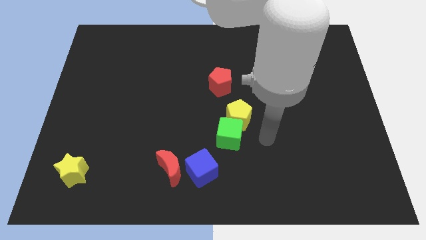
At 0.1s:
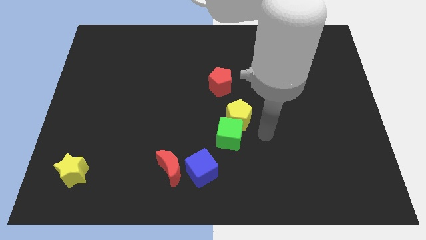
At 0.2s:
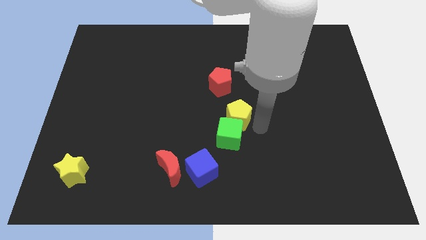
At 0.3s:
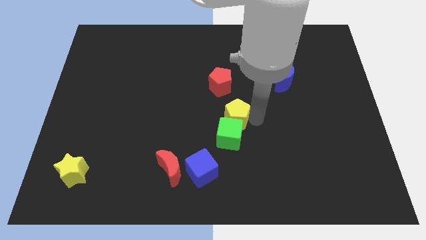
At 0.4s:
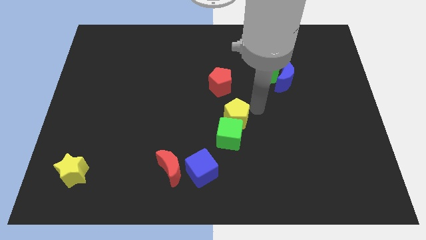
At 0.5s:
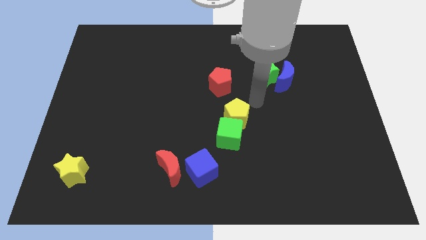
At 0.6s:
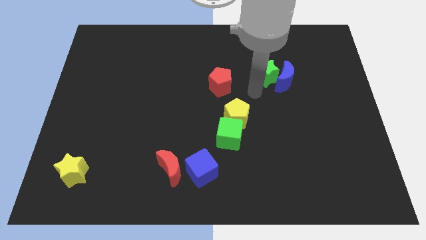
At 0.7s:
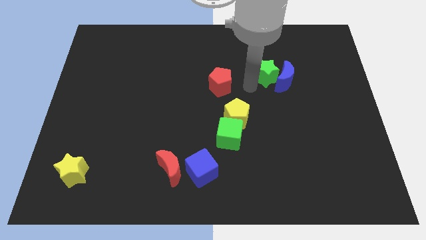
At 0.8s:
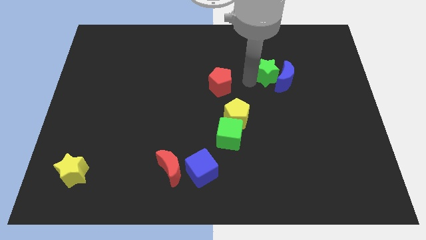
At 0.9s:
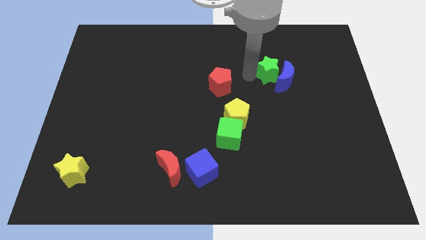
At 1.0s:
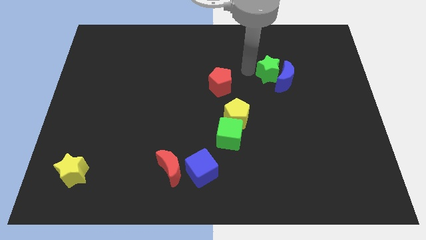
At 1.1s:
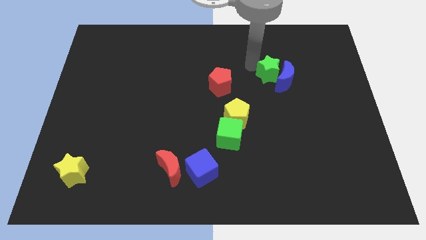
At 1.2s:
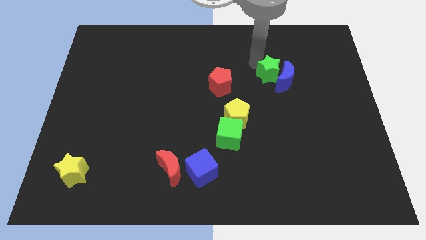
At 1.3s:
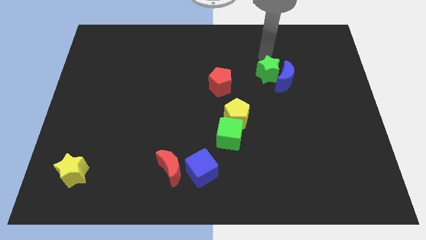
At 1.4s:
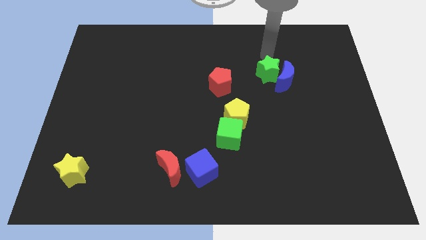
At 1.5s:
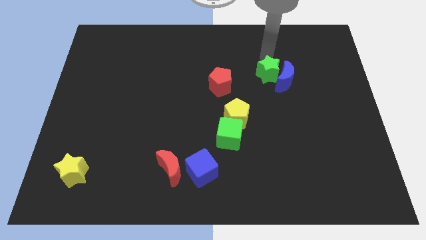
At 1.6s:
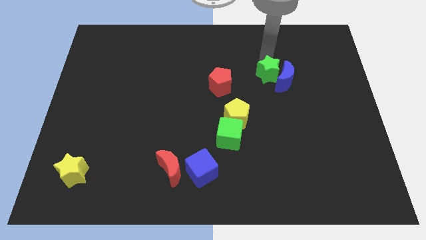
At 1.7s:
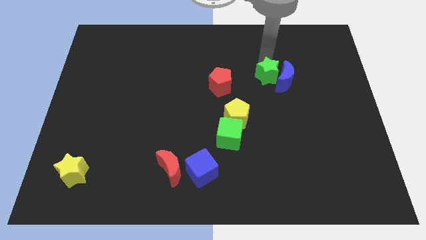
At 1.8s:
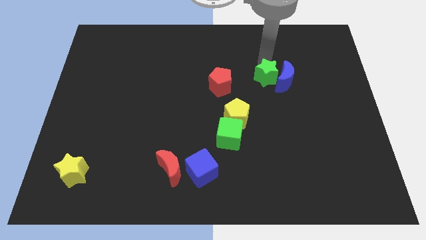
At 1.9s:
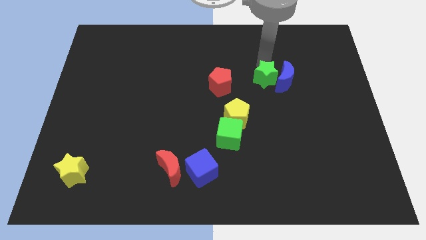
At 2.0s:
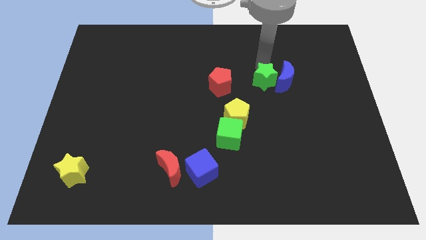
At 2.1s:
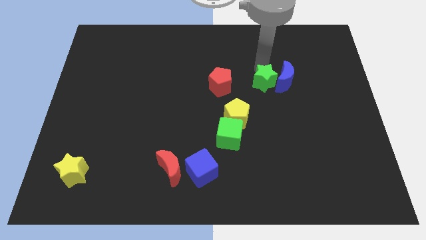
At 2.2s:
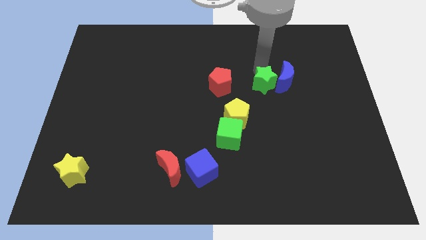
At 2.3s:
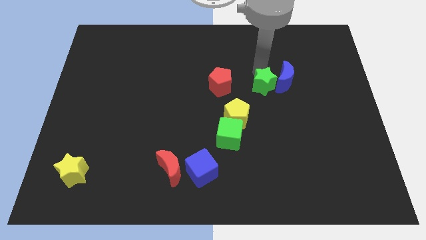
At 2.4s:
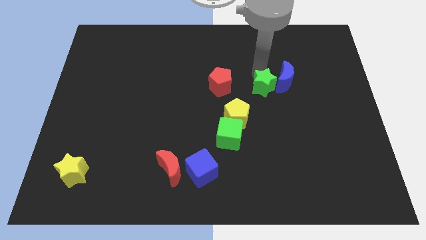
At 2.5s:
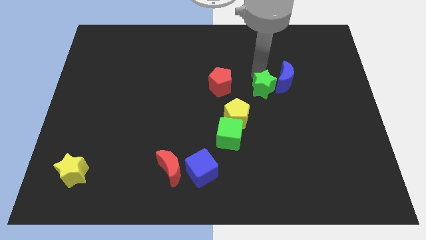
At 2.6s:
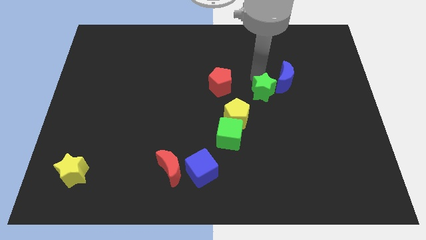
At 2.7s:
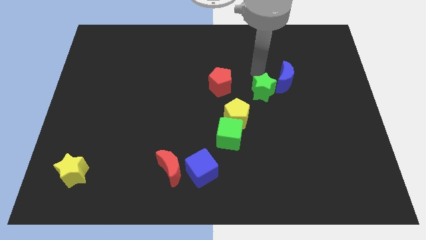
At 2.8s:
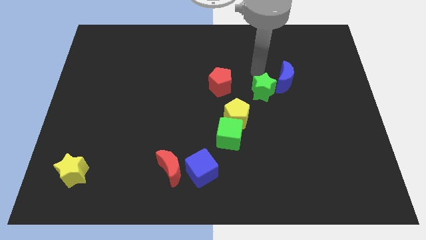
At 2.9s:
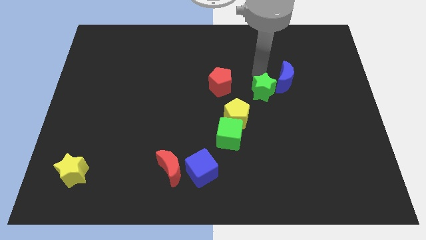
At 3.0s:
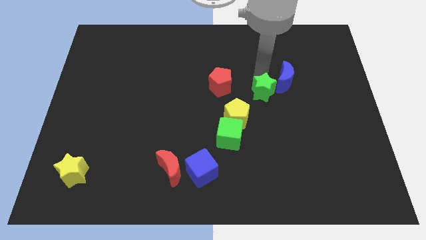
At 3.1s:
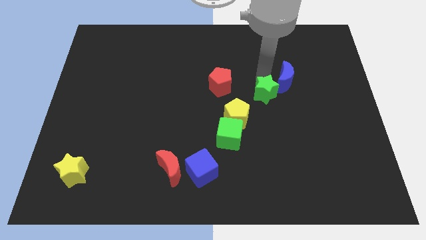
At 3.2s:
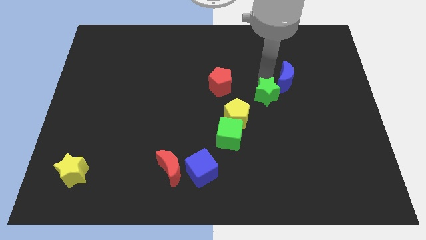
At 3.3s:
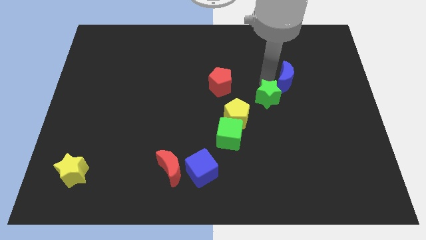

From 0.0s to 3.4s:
slightly push the green star downwards

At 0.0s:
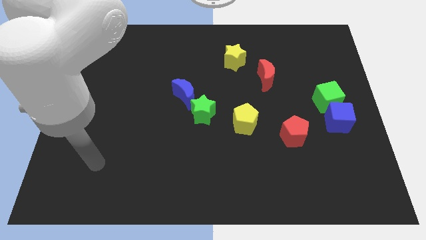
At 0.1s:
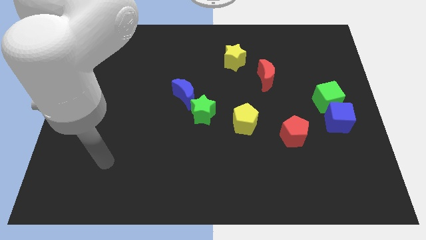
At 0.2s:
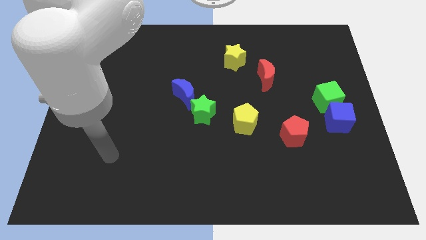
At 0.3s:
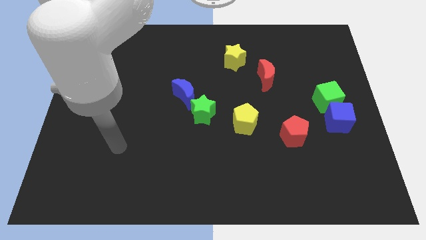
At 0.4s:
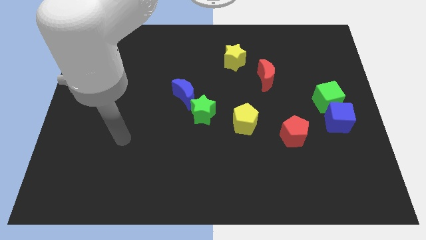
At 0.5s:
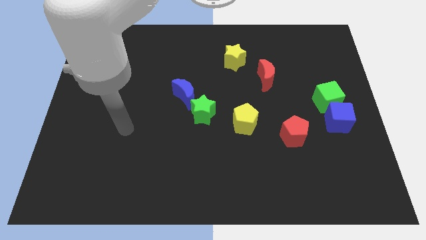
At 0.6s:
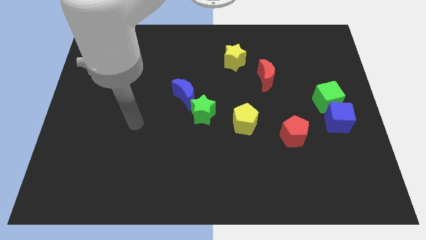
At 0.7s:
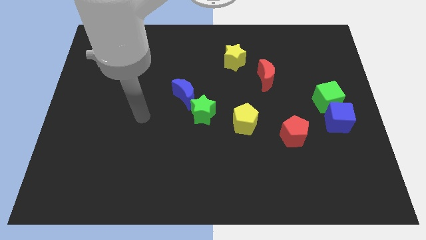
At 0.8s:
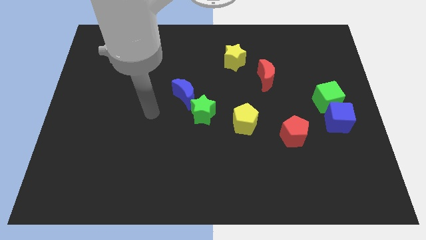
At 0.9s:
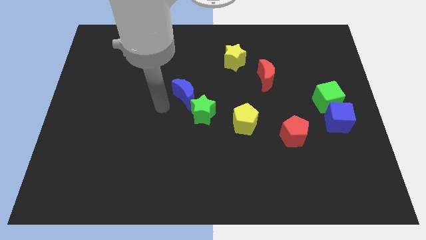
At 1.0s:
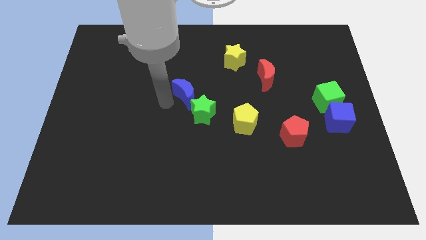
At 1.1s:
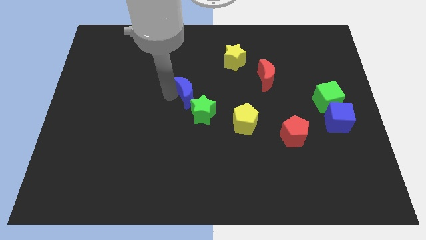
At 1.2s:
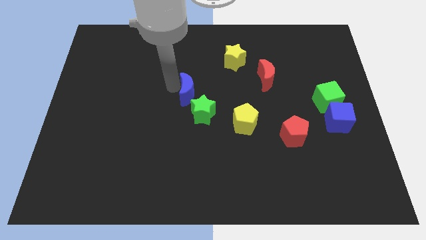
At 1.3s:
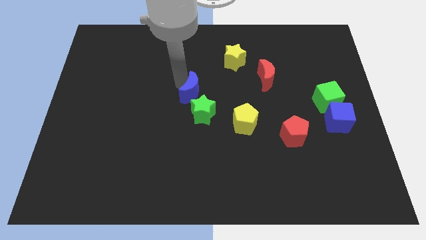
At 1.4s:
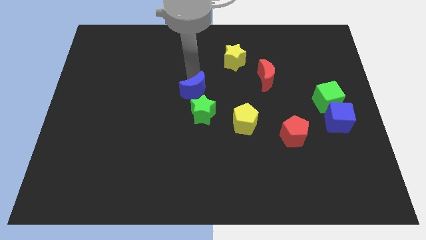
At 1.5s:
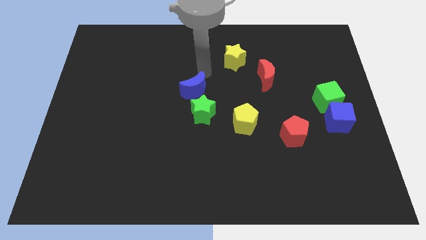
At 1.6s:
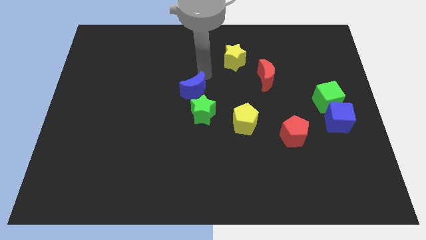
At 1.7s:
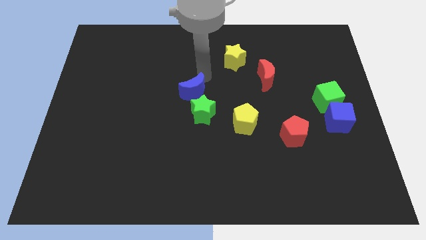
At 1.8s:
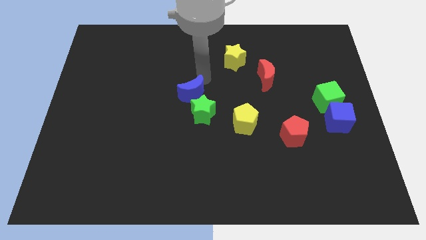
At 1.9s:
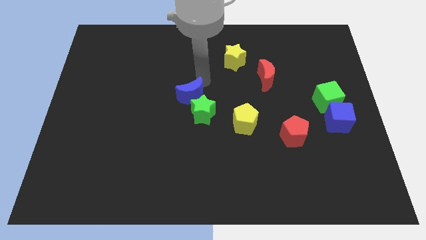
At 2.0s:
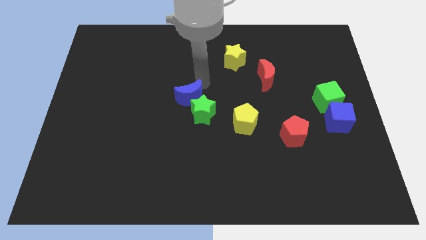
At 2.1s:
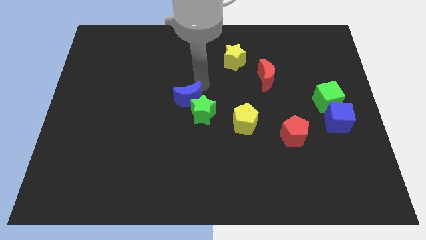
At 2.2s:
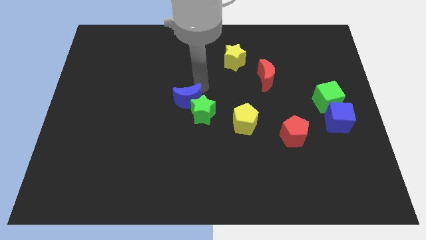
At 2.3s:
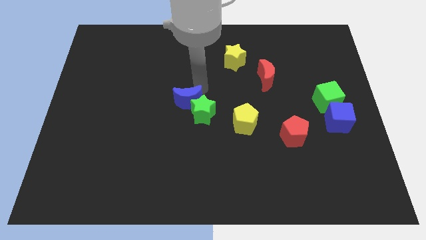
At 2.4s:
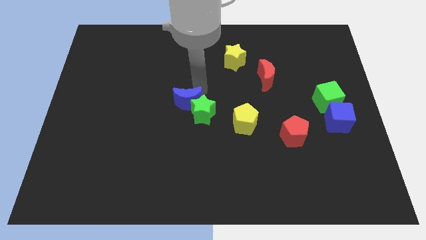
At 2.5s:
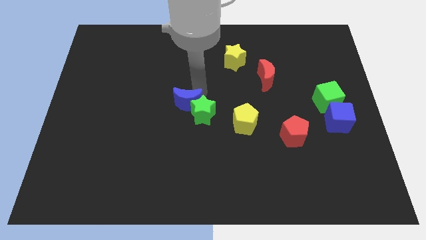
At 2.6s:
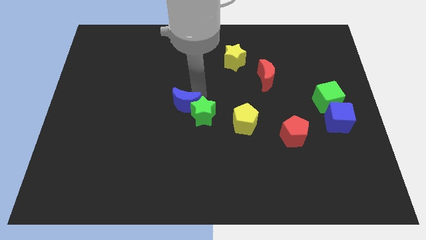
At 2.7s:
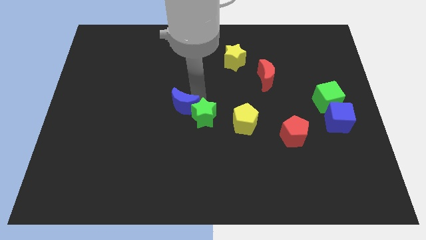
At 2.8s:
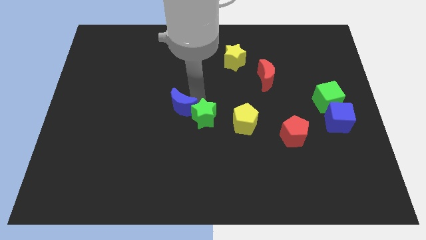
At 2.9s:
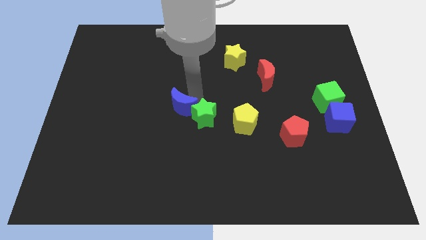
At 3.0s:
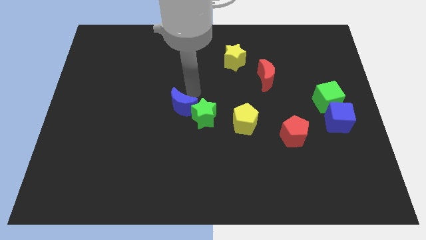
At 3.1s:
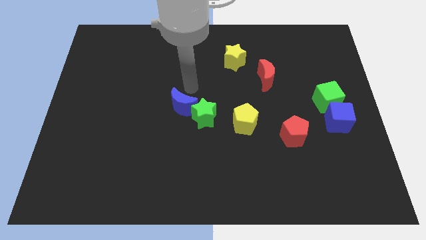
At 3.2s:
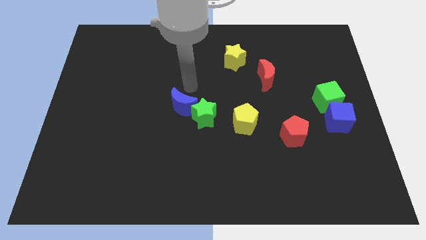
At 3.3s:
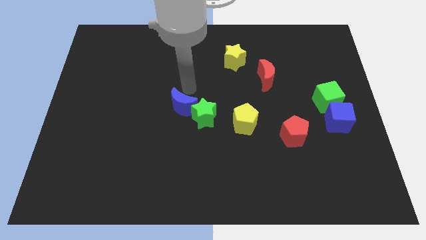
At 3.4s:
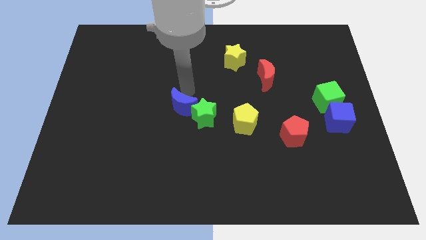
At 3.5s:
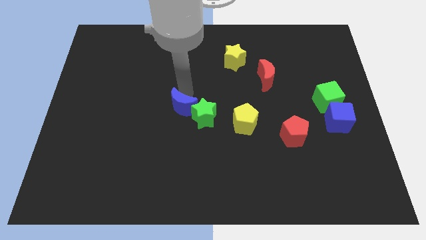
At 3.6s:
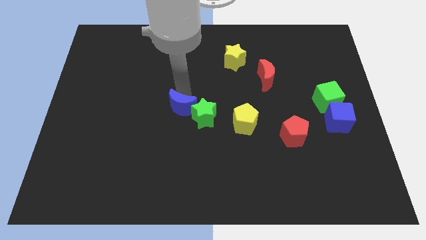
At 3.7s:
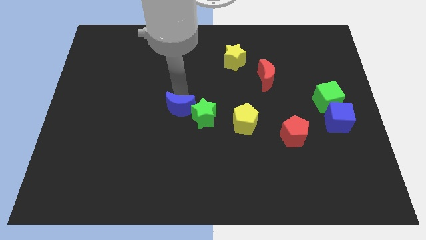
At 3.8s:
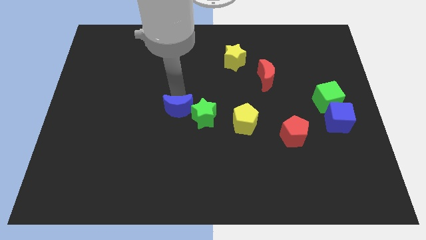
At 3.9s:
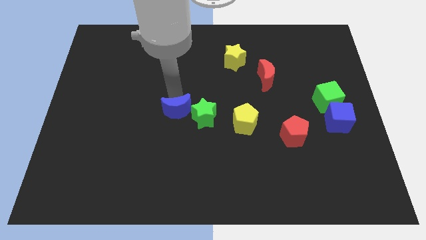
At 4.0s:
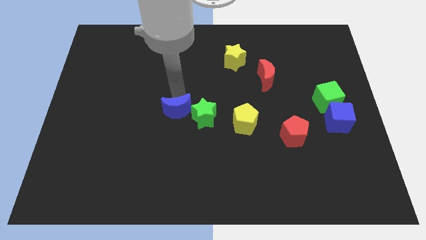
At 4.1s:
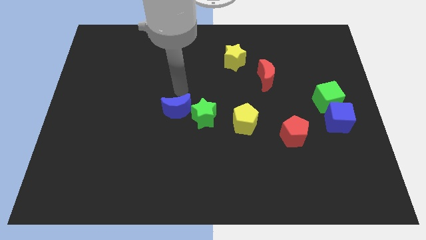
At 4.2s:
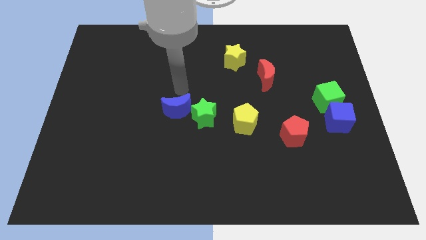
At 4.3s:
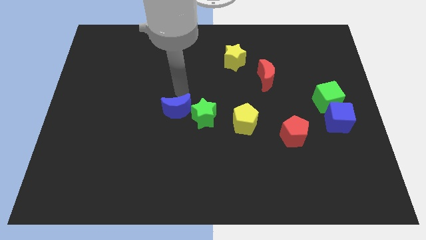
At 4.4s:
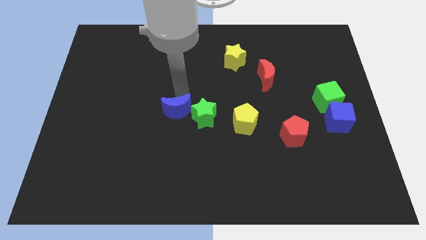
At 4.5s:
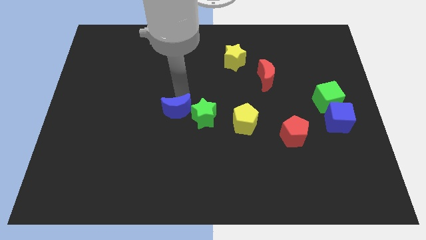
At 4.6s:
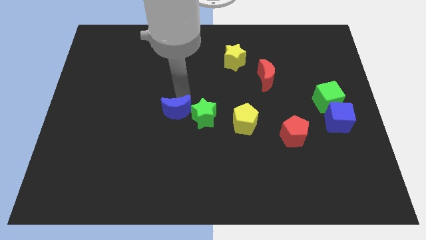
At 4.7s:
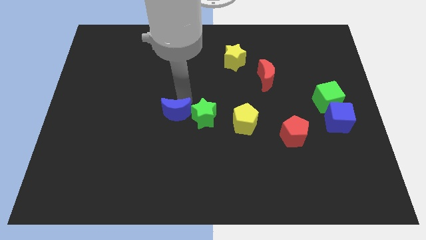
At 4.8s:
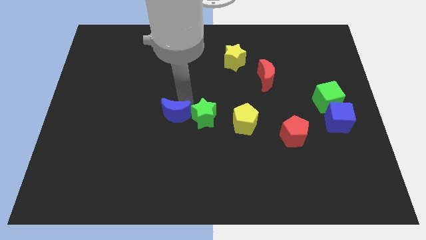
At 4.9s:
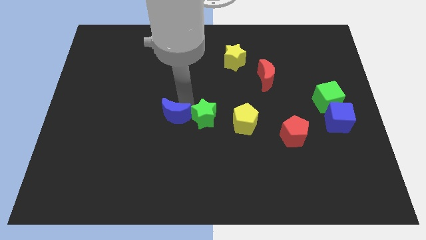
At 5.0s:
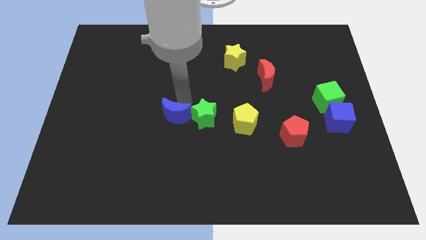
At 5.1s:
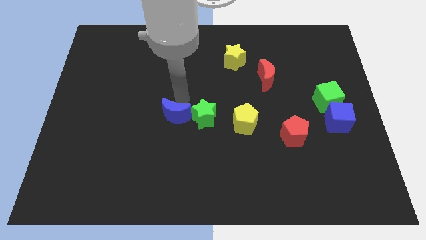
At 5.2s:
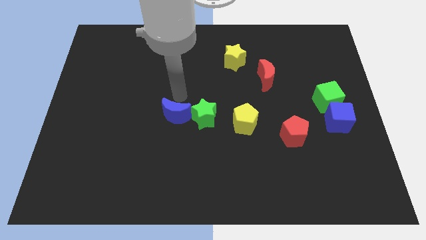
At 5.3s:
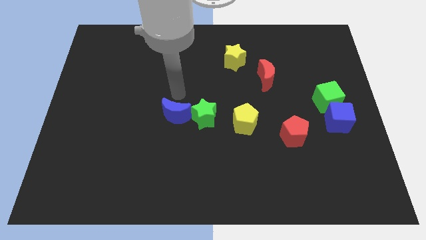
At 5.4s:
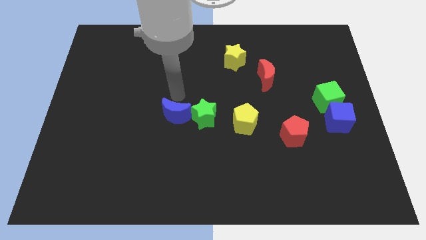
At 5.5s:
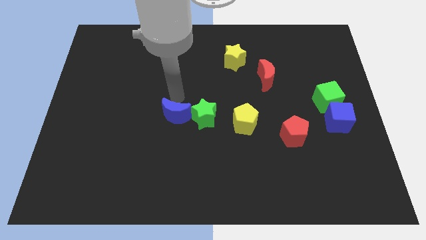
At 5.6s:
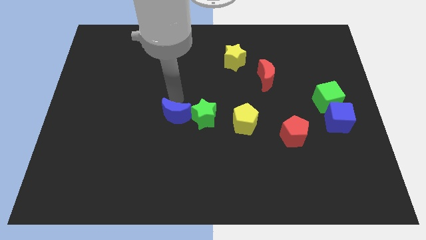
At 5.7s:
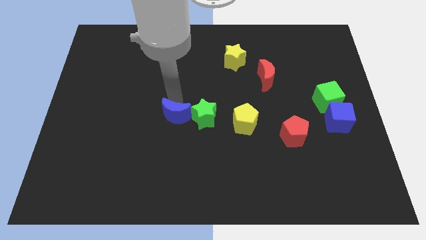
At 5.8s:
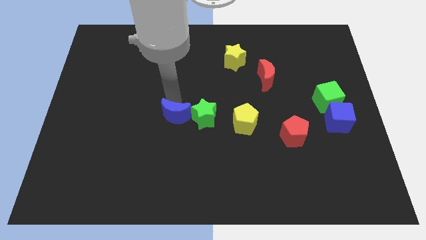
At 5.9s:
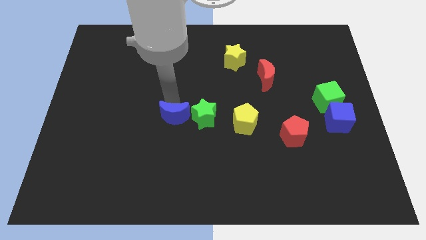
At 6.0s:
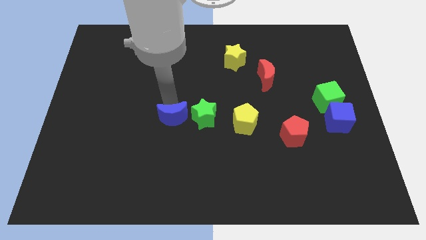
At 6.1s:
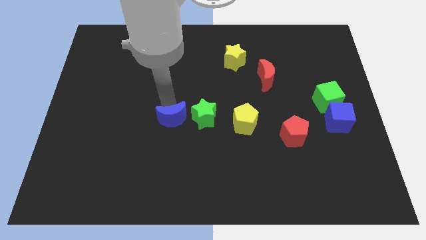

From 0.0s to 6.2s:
push the blue moon downwards a bit
